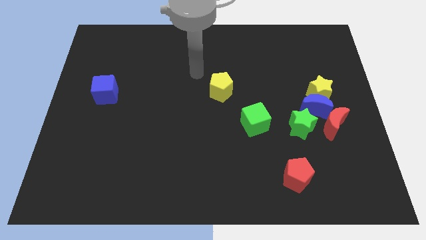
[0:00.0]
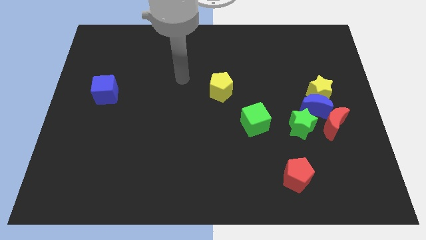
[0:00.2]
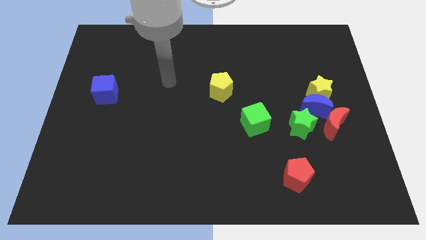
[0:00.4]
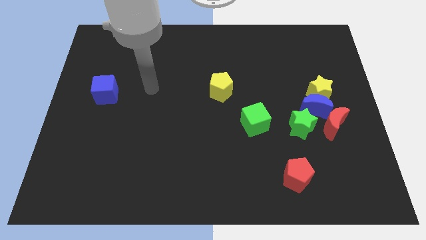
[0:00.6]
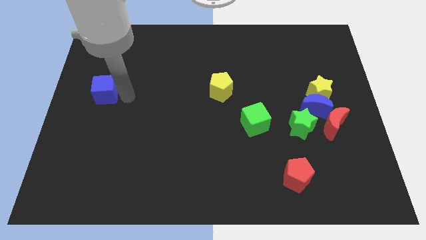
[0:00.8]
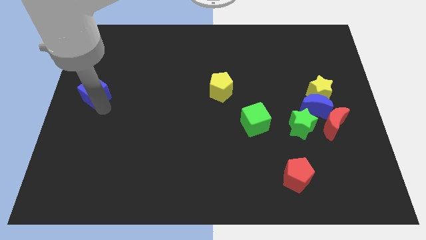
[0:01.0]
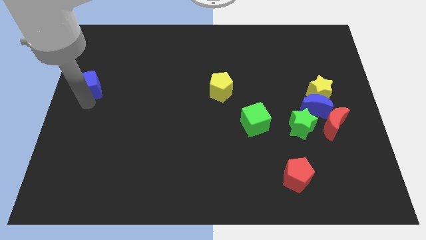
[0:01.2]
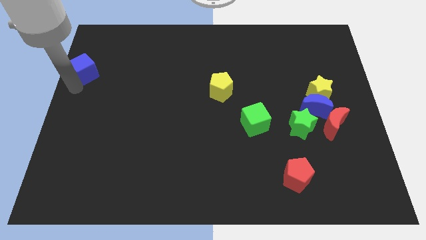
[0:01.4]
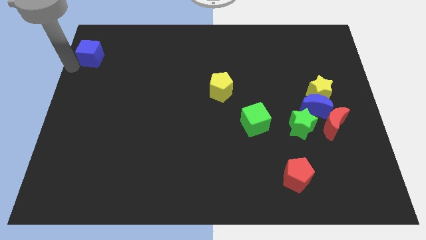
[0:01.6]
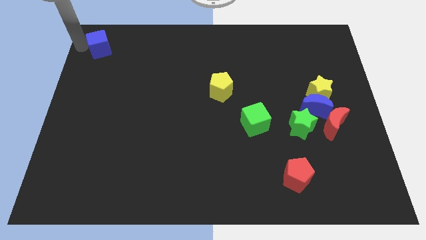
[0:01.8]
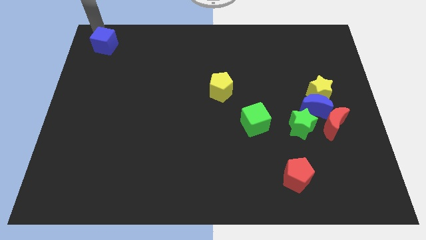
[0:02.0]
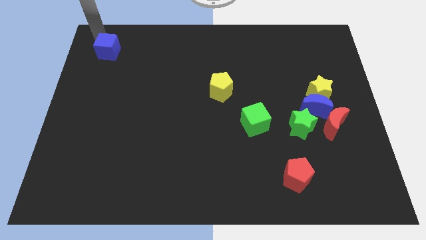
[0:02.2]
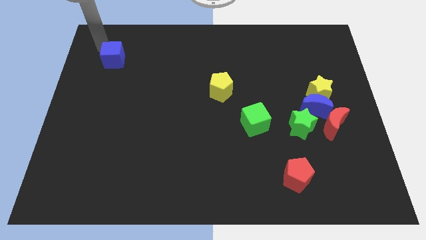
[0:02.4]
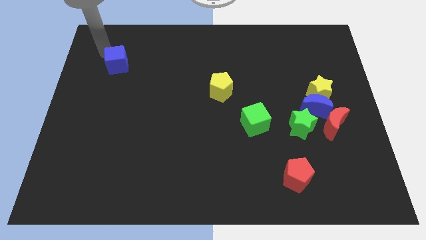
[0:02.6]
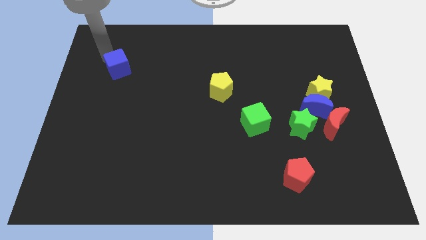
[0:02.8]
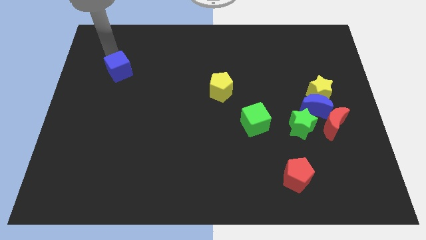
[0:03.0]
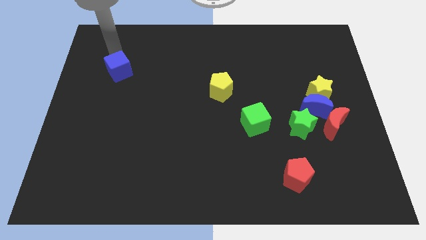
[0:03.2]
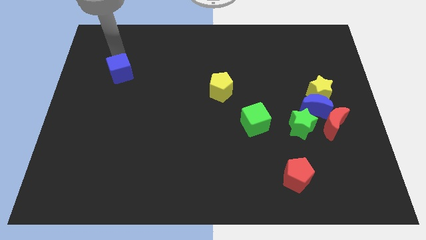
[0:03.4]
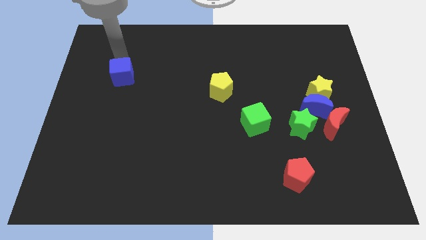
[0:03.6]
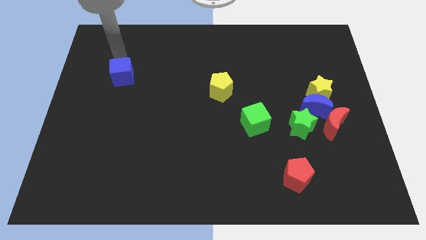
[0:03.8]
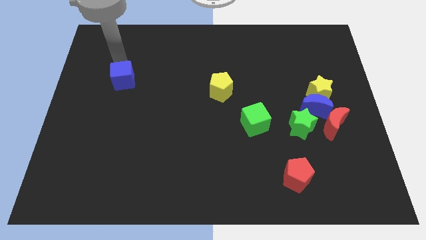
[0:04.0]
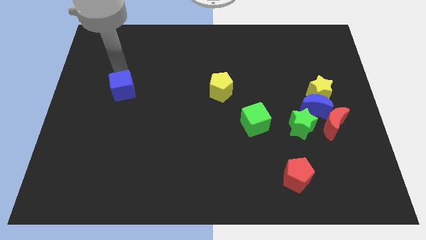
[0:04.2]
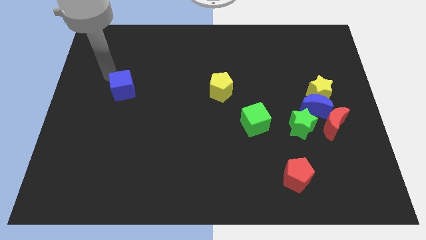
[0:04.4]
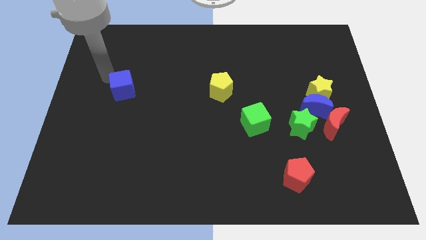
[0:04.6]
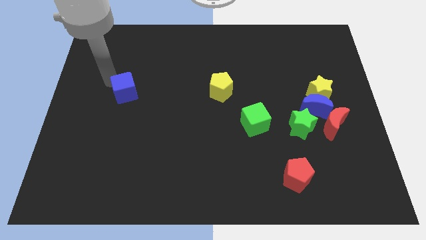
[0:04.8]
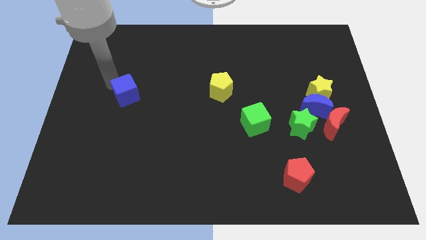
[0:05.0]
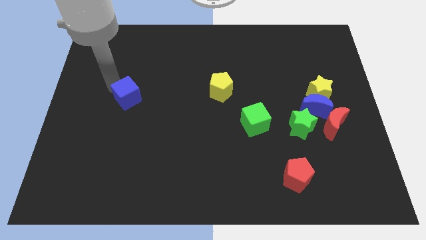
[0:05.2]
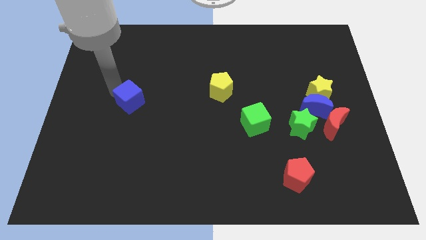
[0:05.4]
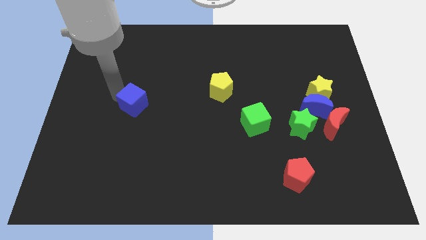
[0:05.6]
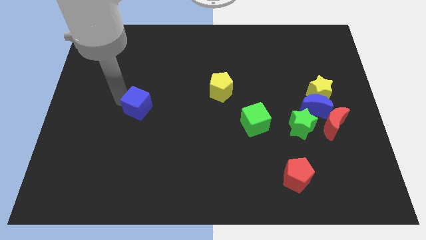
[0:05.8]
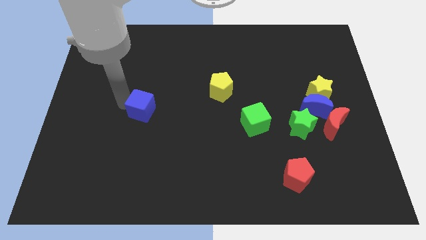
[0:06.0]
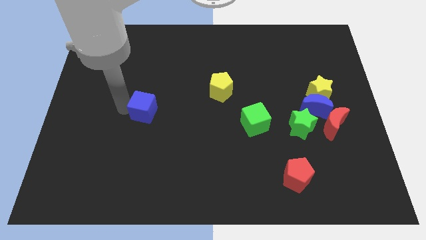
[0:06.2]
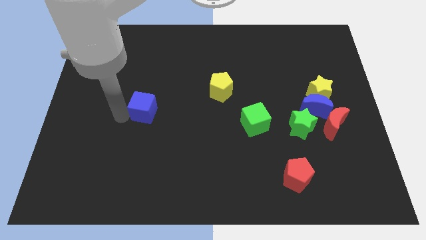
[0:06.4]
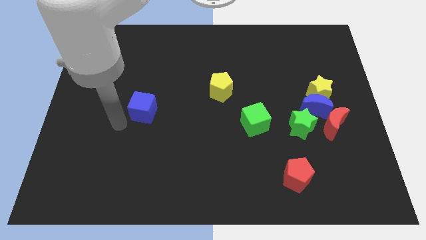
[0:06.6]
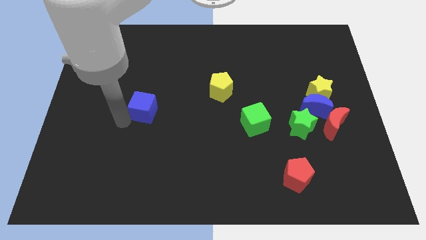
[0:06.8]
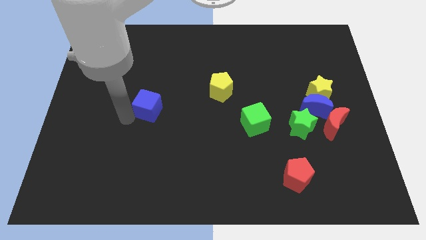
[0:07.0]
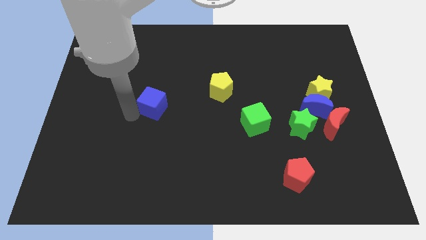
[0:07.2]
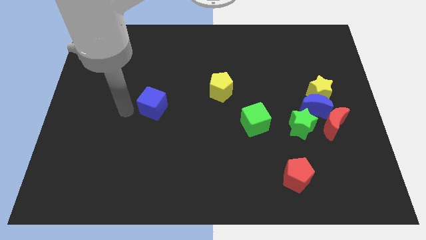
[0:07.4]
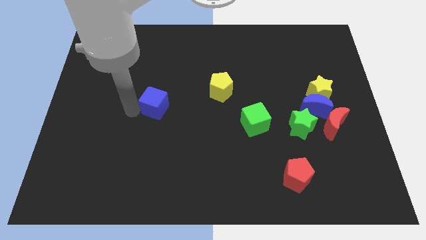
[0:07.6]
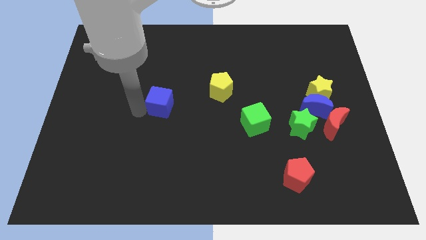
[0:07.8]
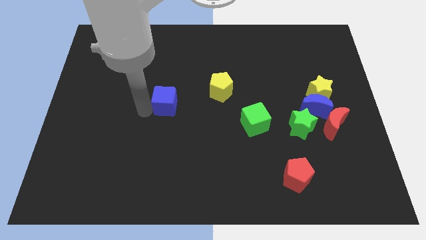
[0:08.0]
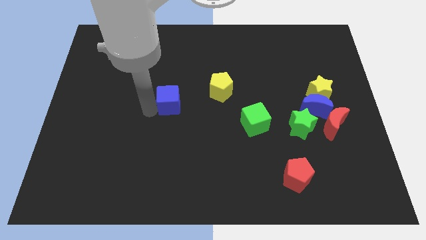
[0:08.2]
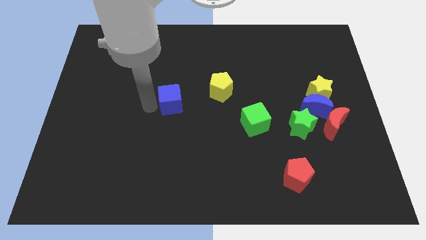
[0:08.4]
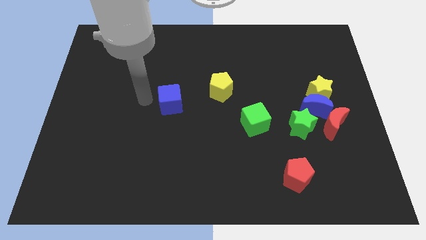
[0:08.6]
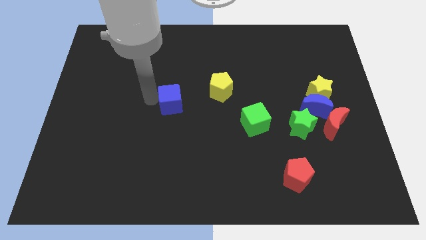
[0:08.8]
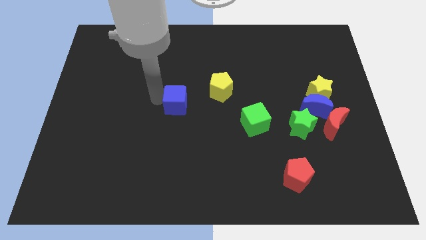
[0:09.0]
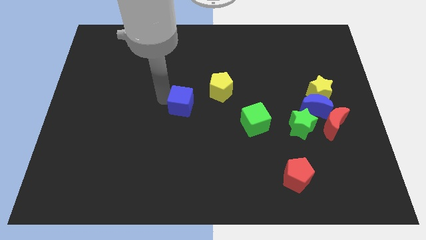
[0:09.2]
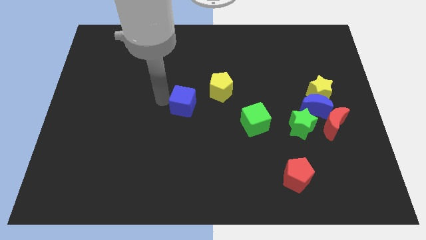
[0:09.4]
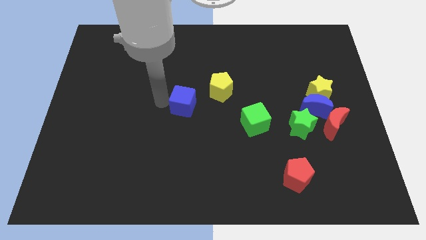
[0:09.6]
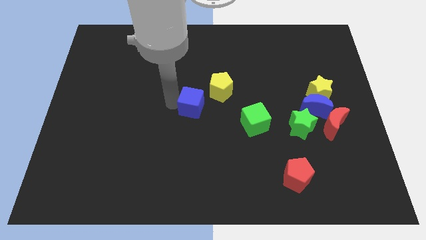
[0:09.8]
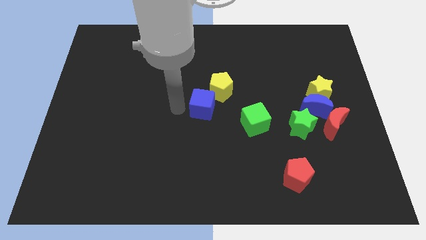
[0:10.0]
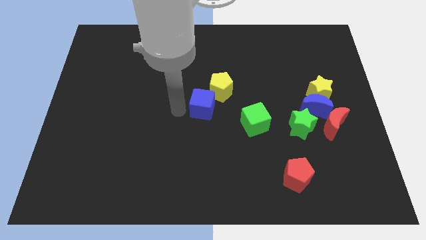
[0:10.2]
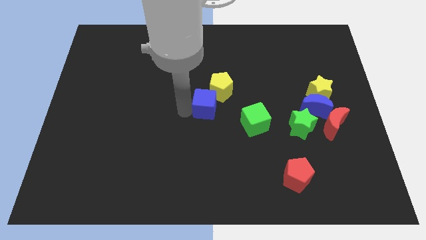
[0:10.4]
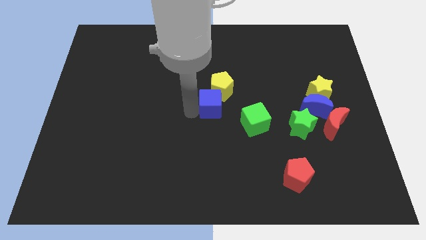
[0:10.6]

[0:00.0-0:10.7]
slide the blue cube to the top left of the green cube

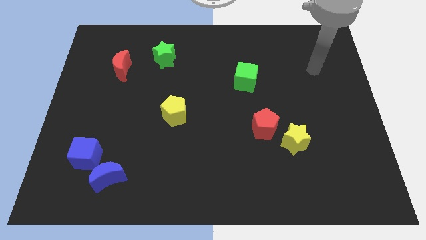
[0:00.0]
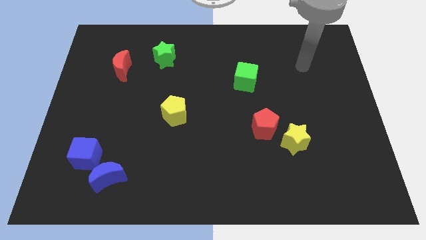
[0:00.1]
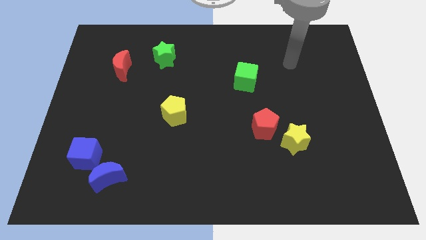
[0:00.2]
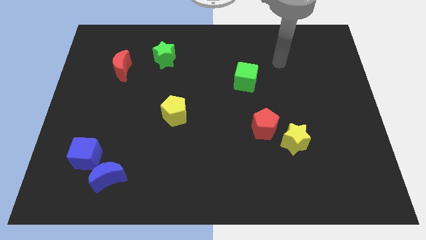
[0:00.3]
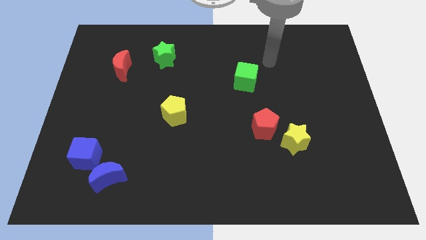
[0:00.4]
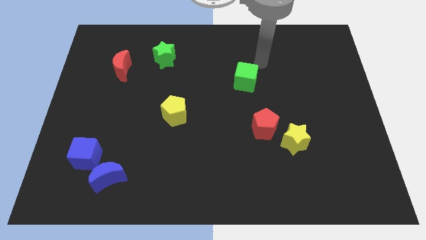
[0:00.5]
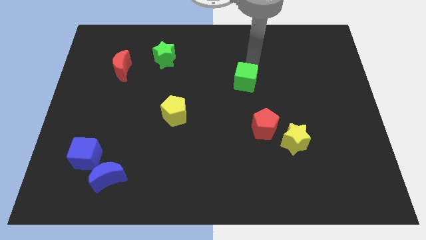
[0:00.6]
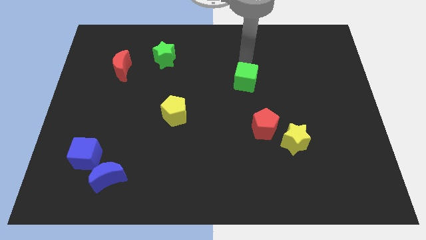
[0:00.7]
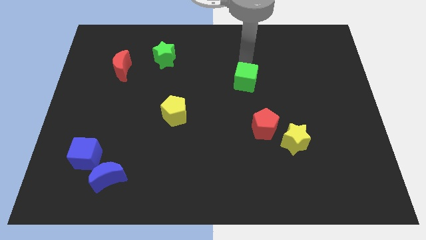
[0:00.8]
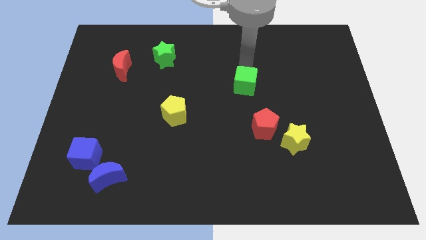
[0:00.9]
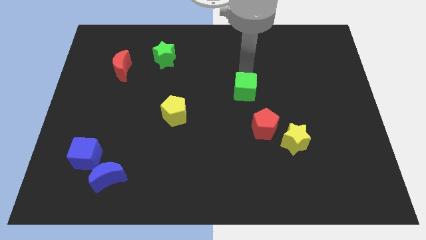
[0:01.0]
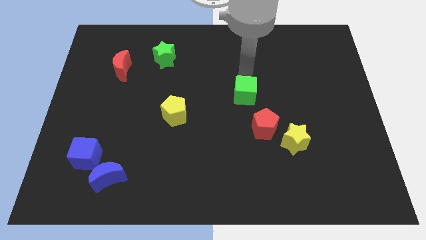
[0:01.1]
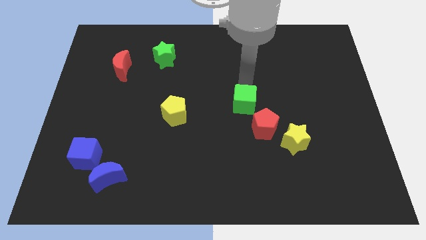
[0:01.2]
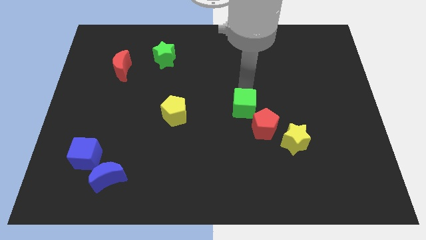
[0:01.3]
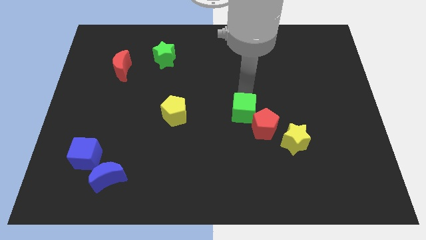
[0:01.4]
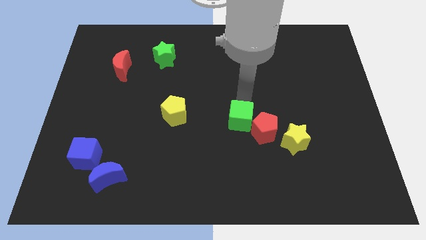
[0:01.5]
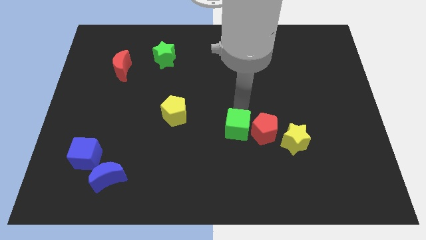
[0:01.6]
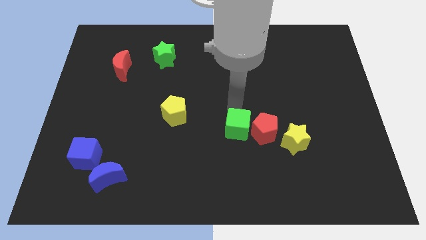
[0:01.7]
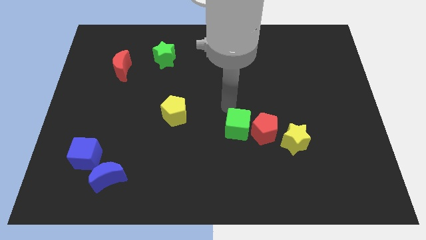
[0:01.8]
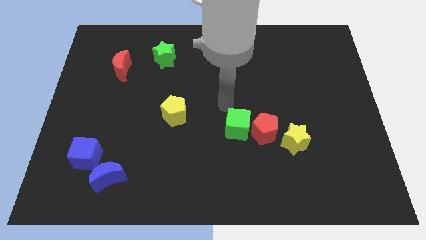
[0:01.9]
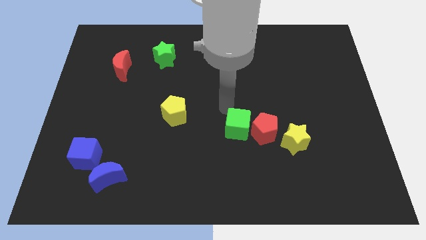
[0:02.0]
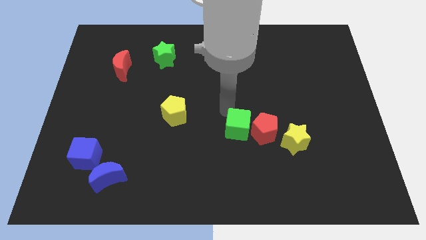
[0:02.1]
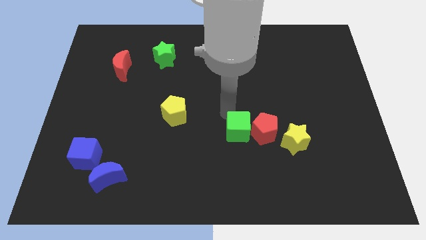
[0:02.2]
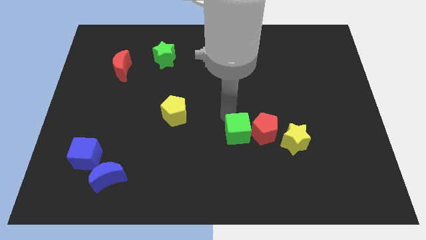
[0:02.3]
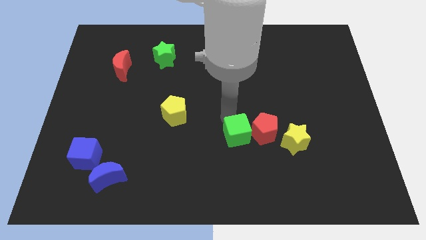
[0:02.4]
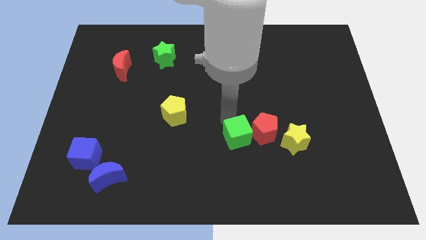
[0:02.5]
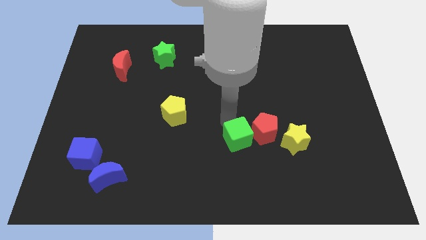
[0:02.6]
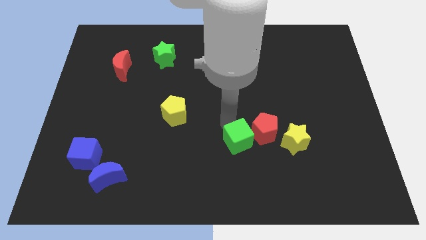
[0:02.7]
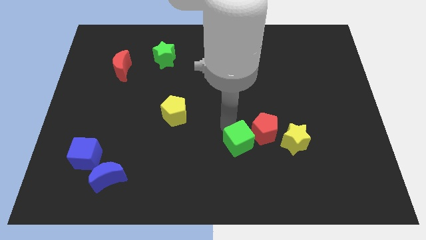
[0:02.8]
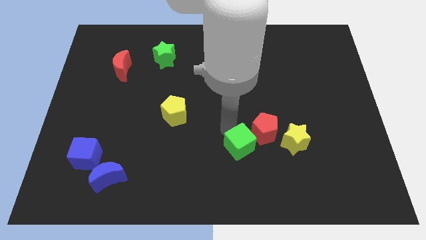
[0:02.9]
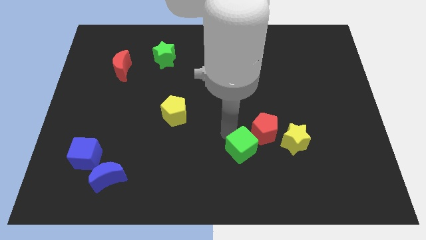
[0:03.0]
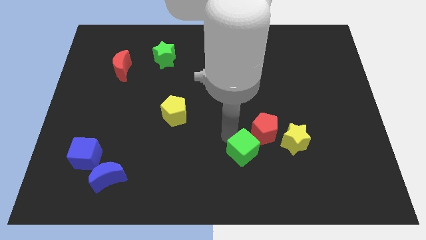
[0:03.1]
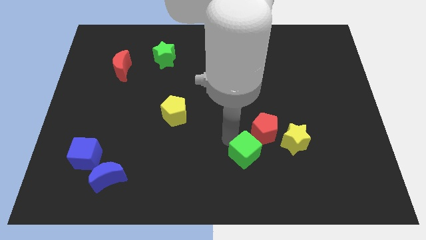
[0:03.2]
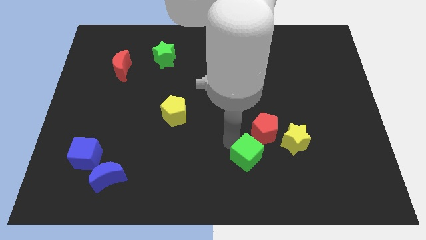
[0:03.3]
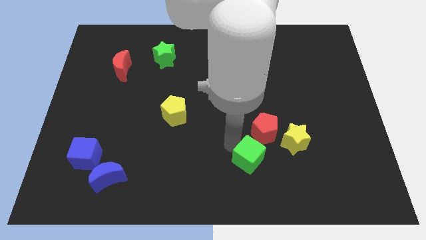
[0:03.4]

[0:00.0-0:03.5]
push the green cube to the bottom left of the yellow star
